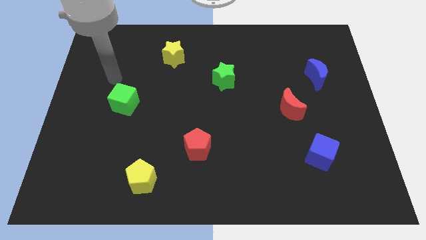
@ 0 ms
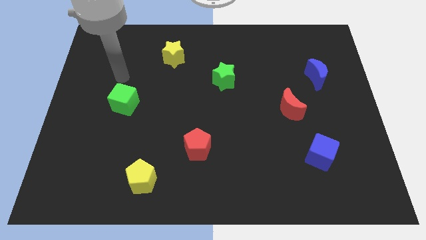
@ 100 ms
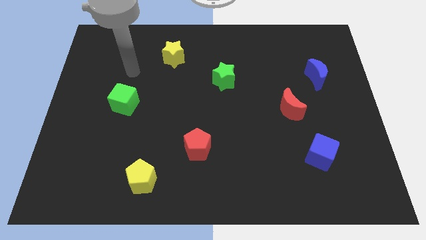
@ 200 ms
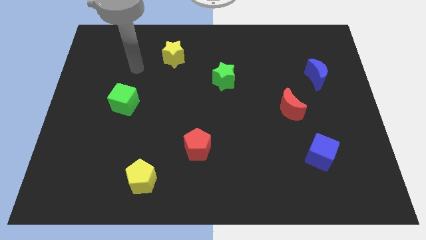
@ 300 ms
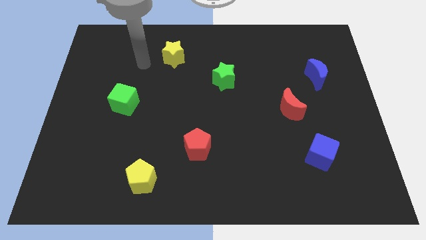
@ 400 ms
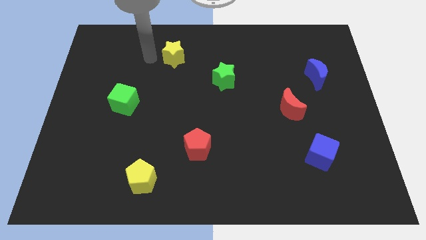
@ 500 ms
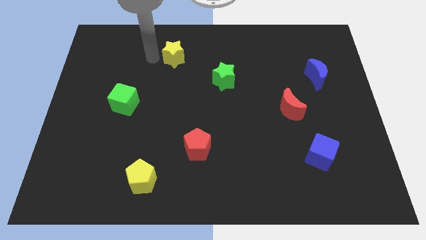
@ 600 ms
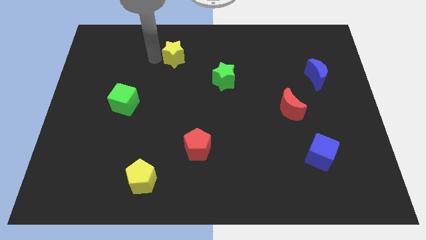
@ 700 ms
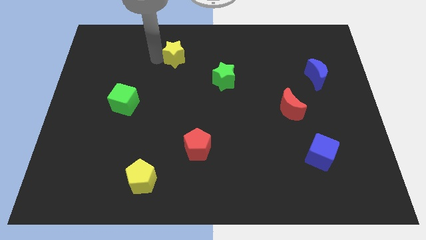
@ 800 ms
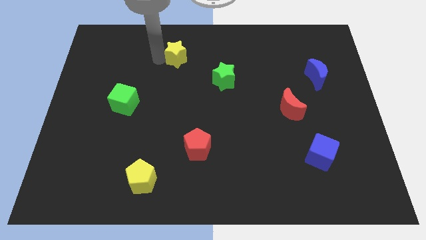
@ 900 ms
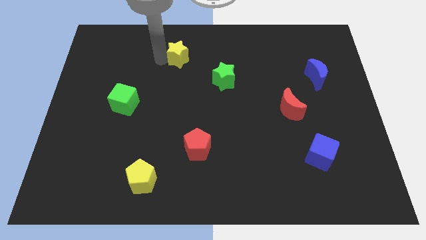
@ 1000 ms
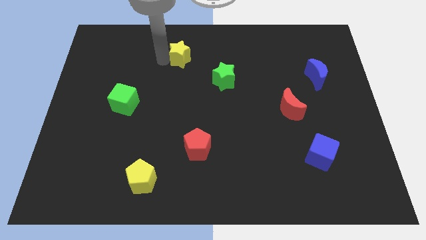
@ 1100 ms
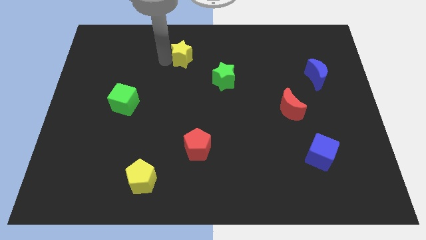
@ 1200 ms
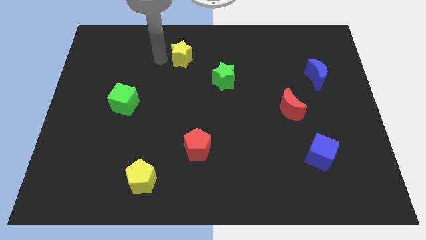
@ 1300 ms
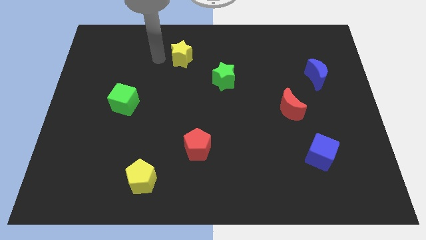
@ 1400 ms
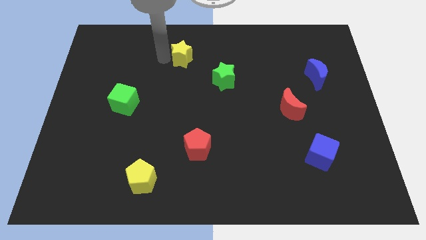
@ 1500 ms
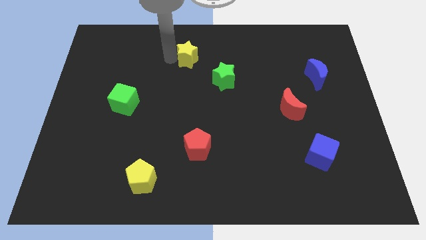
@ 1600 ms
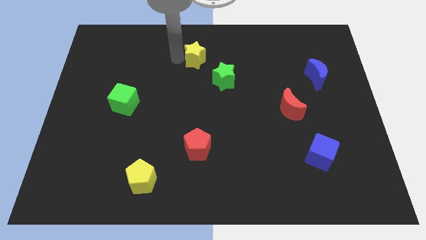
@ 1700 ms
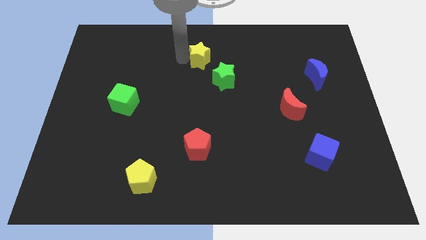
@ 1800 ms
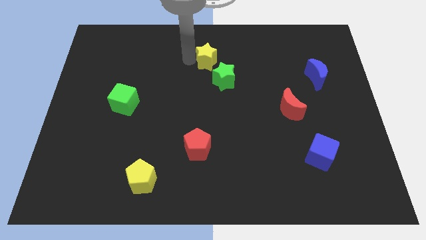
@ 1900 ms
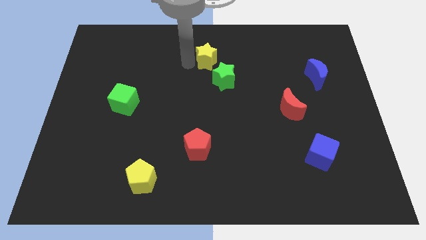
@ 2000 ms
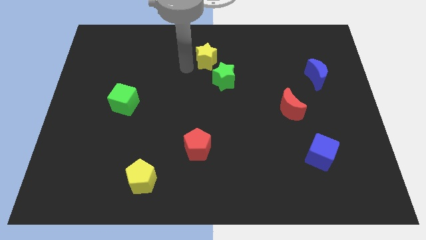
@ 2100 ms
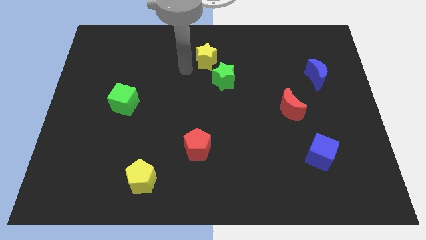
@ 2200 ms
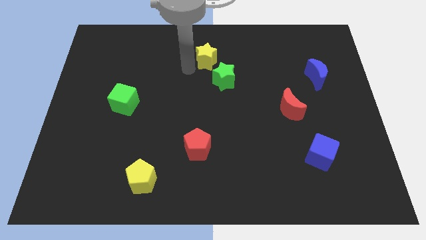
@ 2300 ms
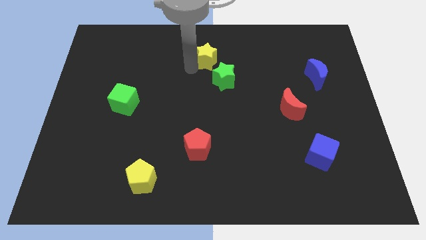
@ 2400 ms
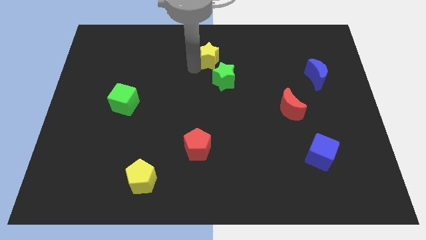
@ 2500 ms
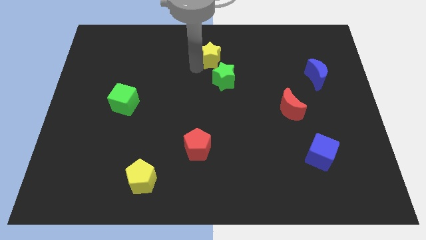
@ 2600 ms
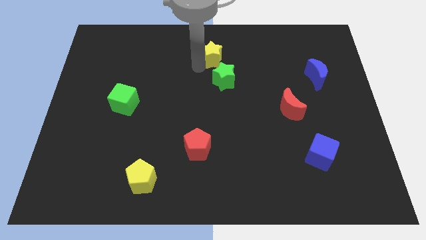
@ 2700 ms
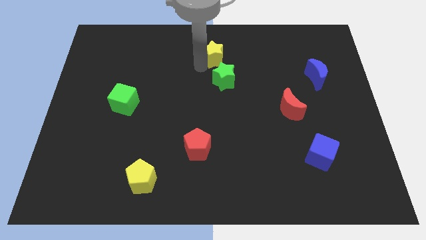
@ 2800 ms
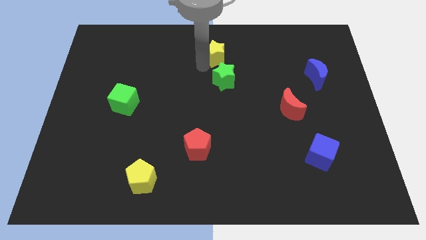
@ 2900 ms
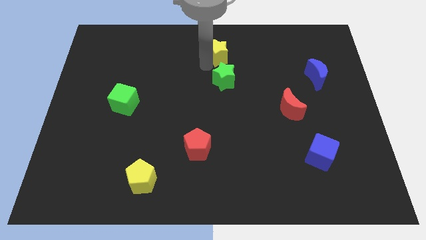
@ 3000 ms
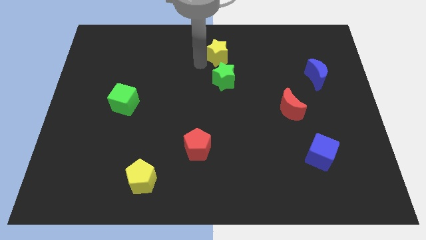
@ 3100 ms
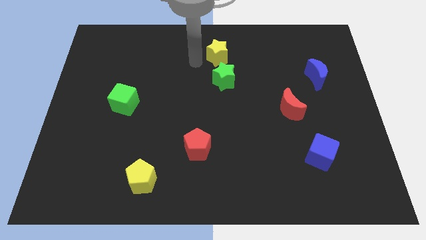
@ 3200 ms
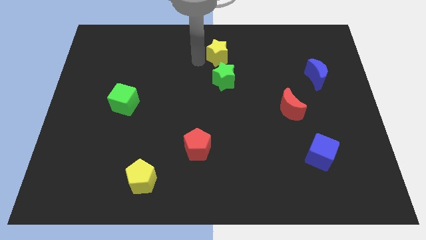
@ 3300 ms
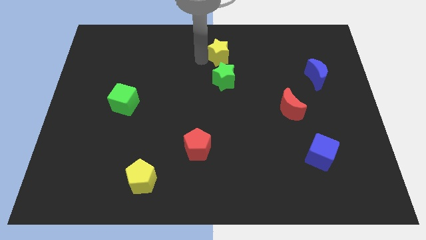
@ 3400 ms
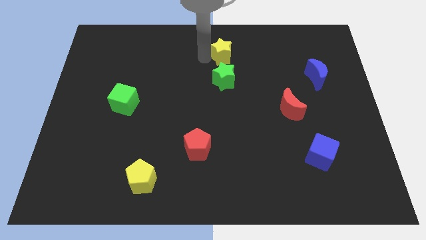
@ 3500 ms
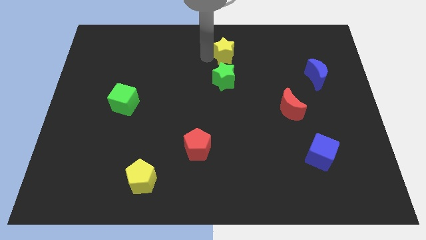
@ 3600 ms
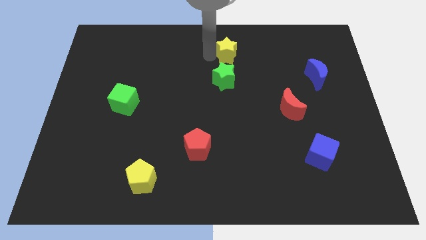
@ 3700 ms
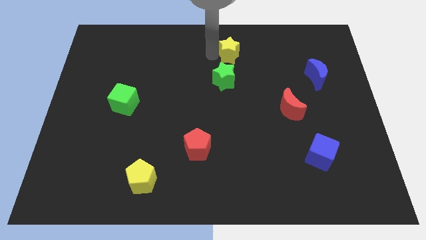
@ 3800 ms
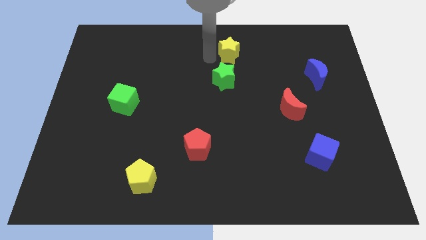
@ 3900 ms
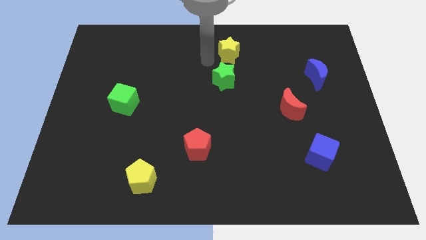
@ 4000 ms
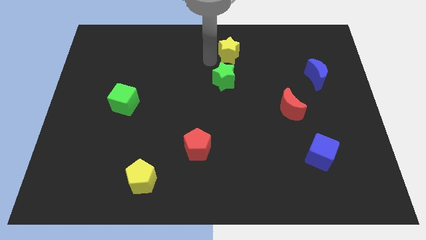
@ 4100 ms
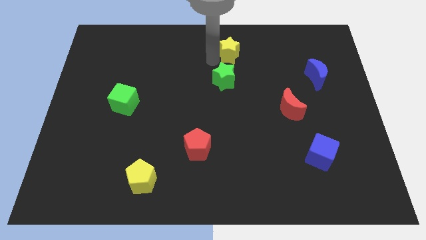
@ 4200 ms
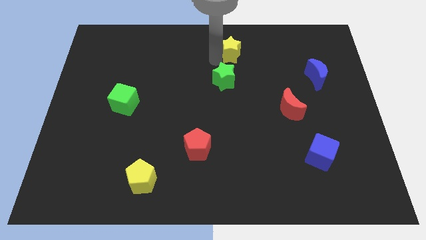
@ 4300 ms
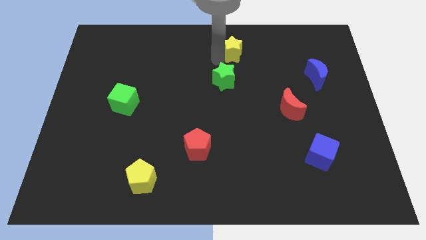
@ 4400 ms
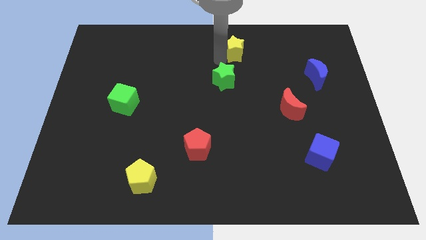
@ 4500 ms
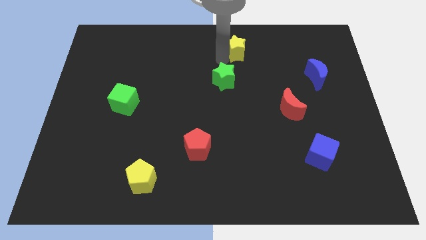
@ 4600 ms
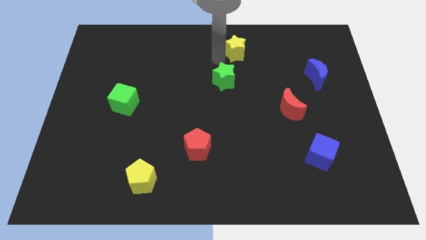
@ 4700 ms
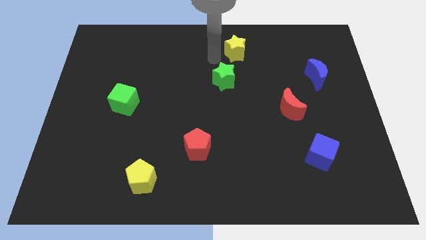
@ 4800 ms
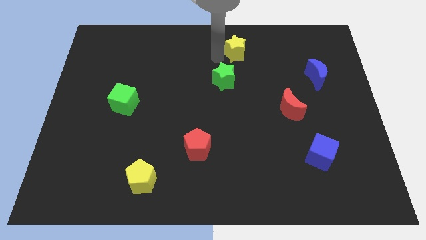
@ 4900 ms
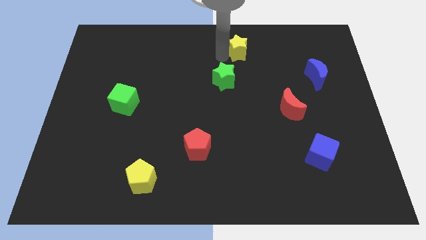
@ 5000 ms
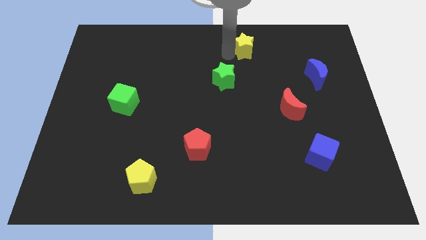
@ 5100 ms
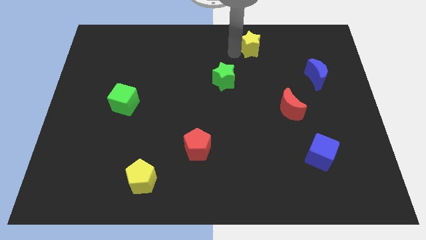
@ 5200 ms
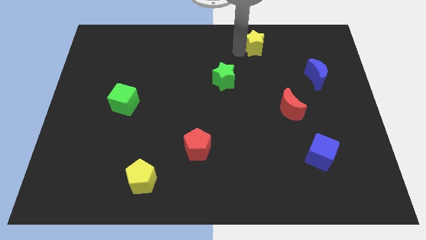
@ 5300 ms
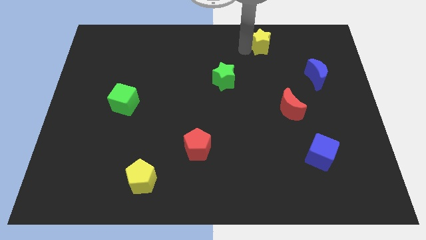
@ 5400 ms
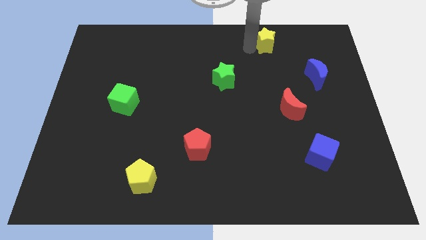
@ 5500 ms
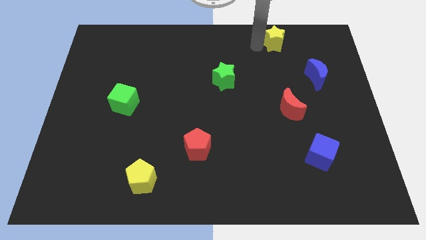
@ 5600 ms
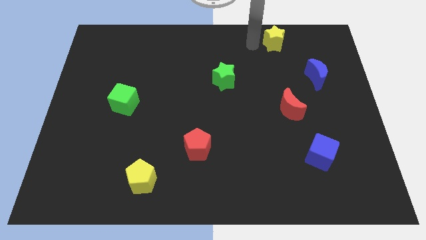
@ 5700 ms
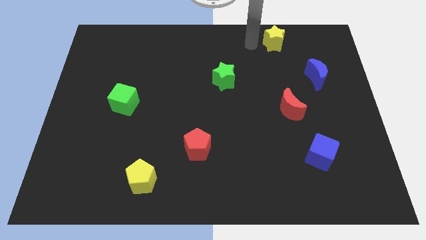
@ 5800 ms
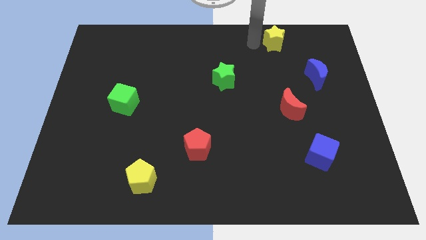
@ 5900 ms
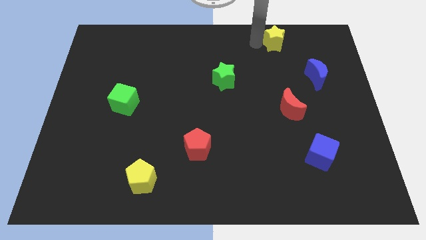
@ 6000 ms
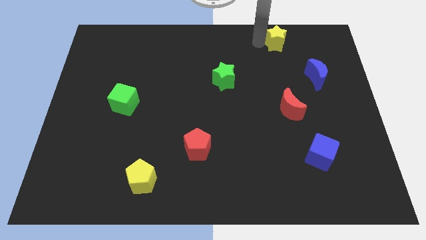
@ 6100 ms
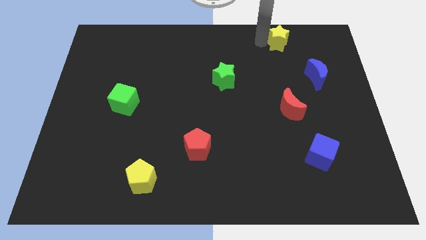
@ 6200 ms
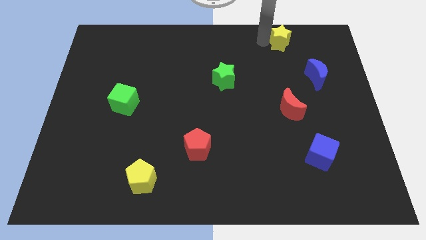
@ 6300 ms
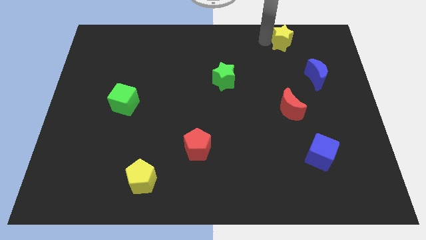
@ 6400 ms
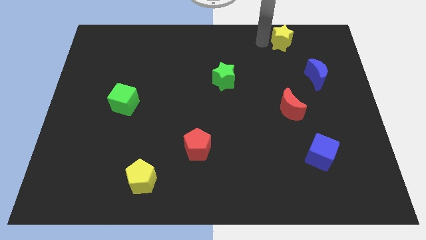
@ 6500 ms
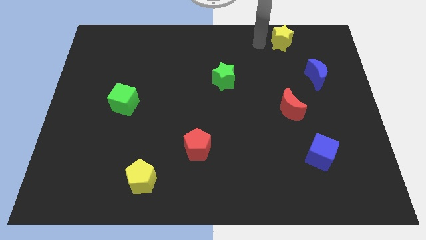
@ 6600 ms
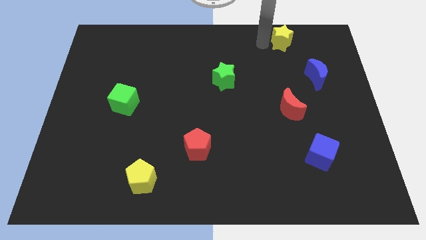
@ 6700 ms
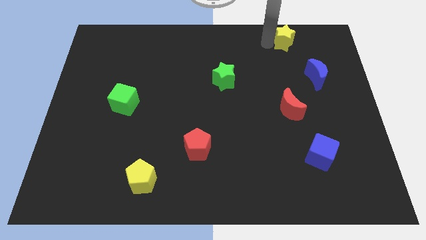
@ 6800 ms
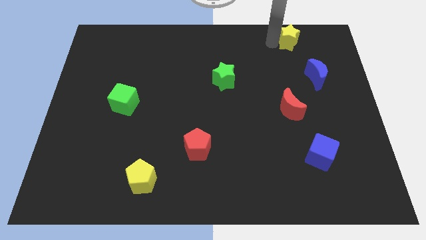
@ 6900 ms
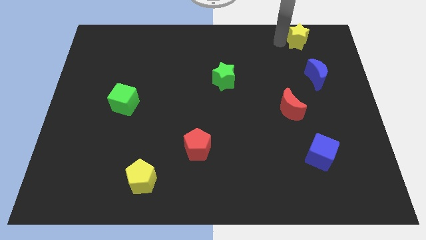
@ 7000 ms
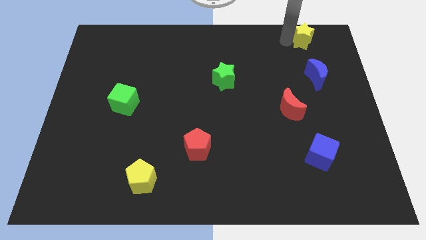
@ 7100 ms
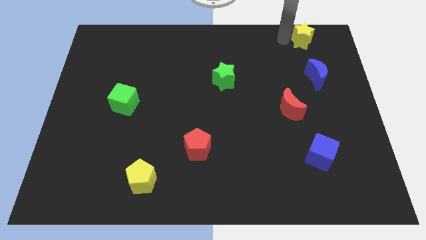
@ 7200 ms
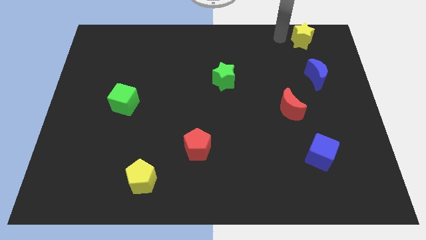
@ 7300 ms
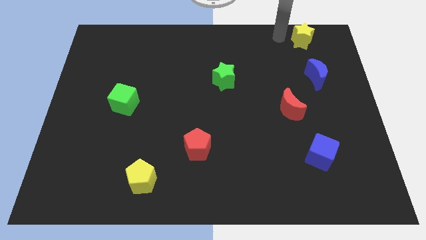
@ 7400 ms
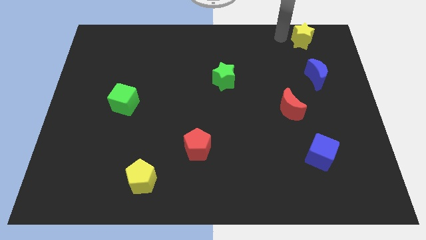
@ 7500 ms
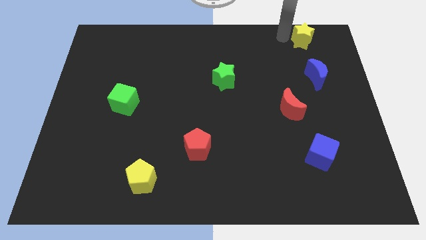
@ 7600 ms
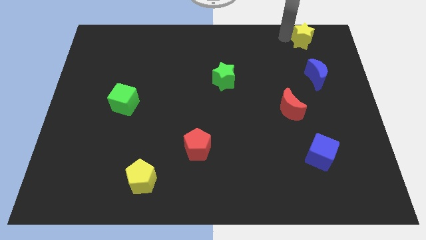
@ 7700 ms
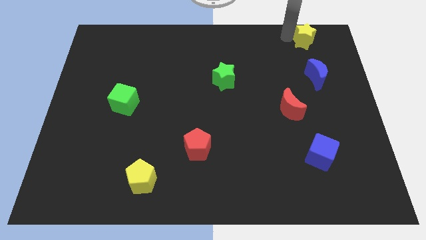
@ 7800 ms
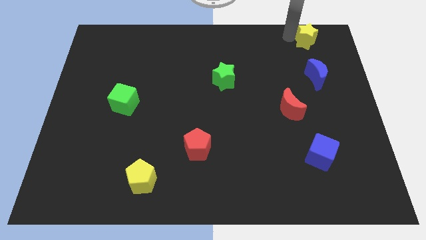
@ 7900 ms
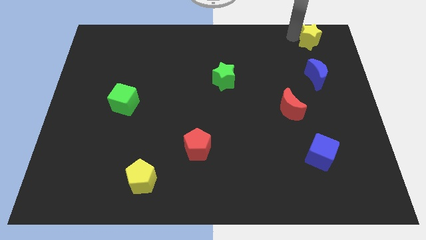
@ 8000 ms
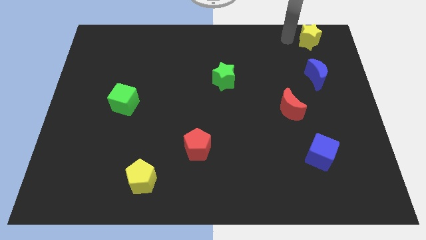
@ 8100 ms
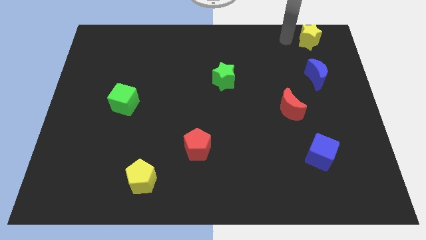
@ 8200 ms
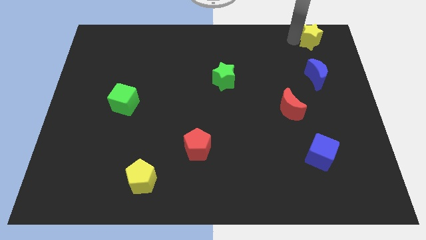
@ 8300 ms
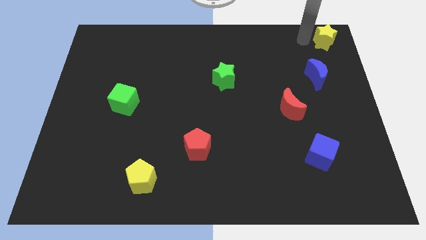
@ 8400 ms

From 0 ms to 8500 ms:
push the yellow star to the upper right corner
